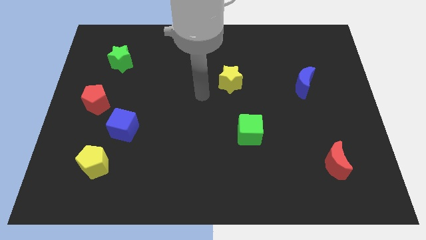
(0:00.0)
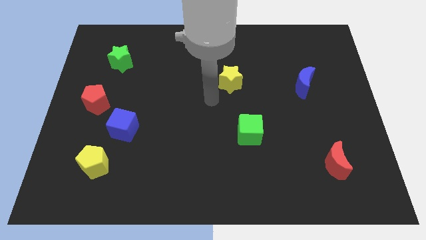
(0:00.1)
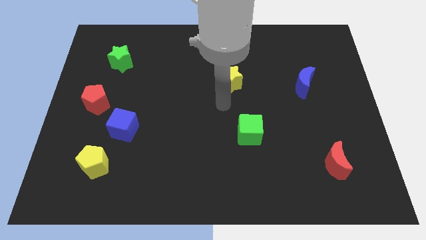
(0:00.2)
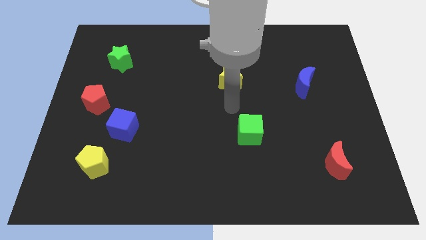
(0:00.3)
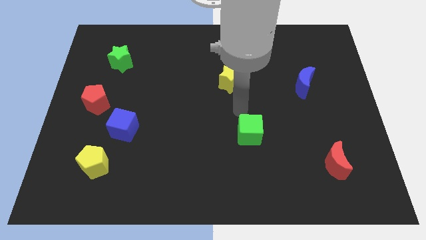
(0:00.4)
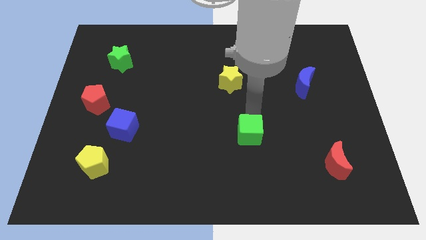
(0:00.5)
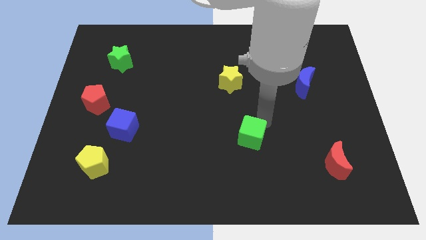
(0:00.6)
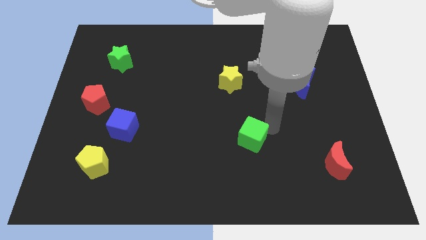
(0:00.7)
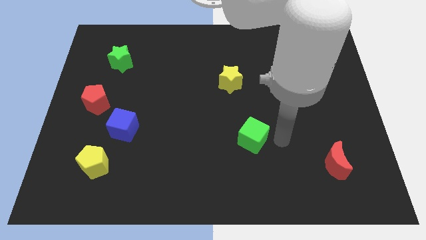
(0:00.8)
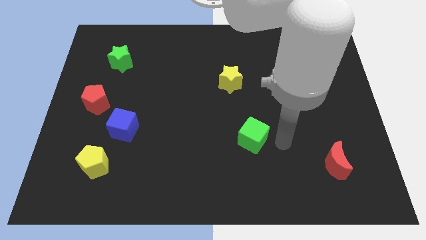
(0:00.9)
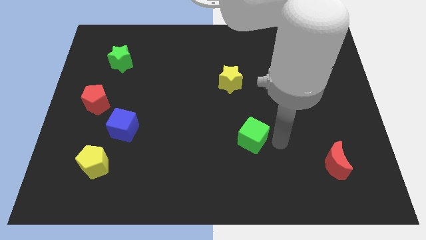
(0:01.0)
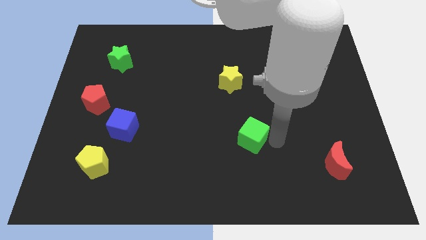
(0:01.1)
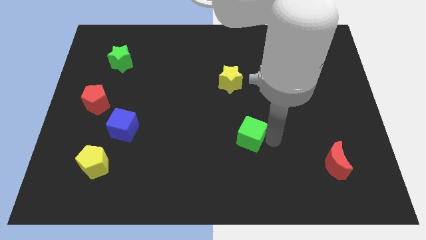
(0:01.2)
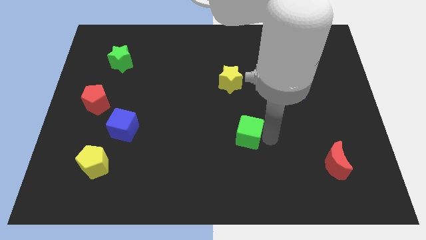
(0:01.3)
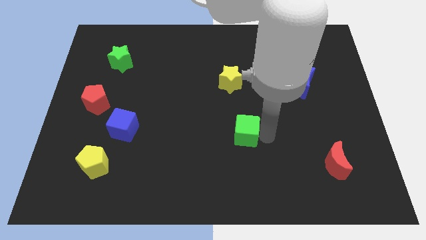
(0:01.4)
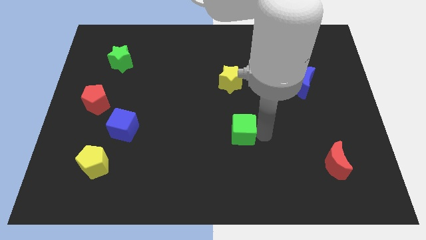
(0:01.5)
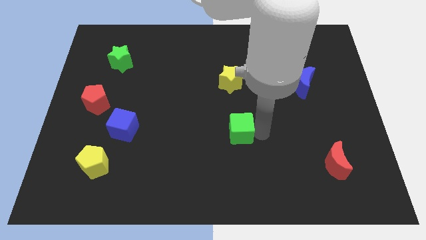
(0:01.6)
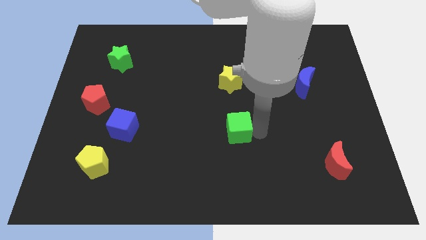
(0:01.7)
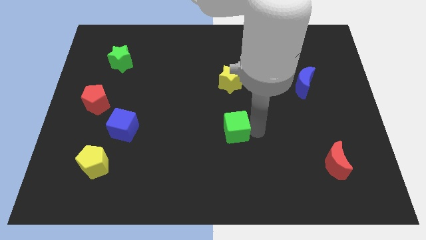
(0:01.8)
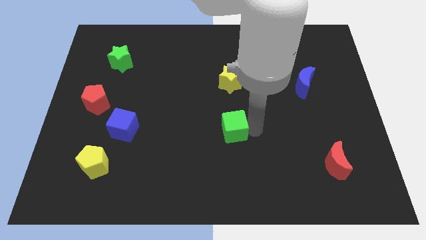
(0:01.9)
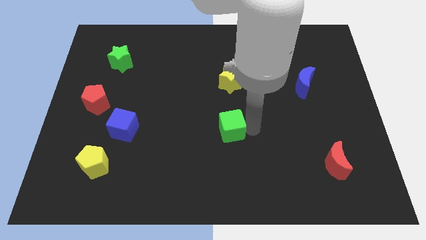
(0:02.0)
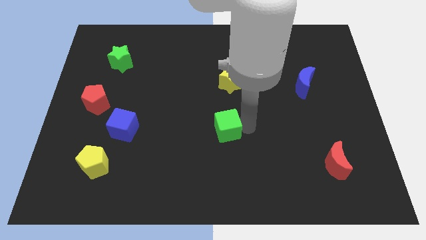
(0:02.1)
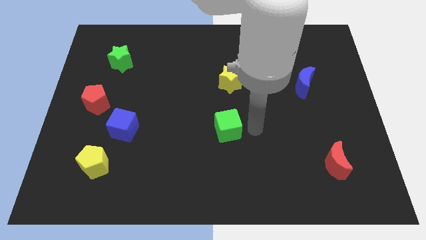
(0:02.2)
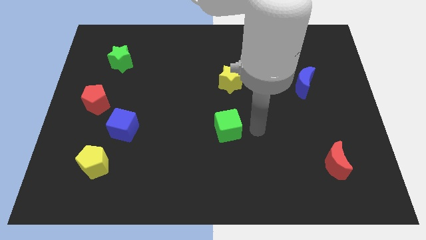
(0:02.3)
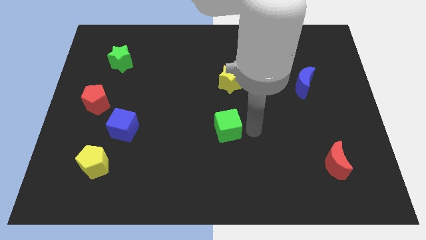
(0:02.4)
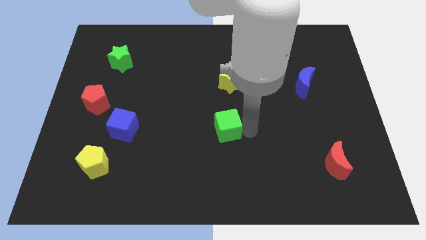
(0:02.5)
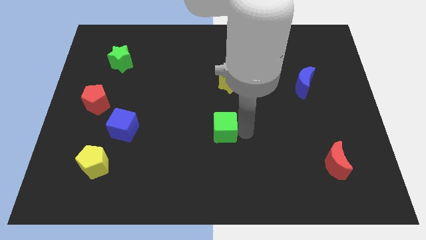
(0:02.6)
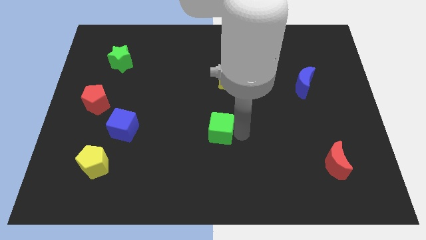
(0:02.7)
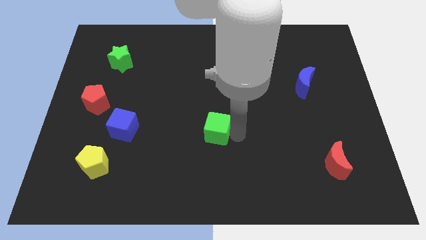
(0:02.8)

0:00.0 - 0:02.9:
slightly slide the green cube to the left

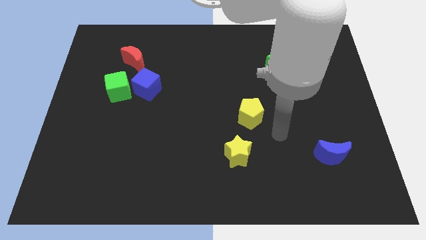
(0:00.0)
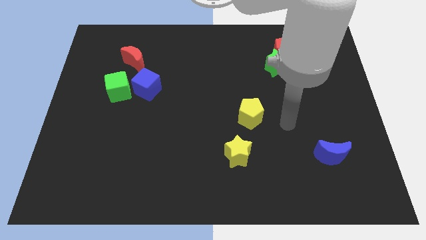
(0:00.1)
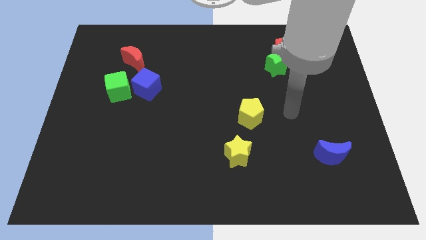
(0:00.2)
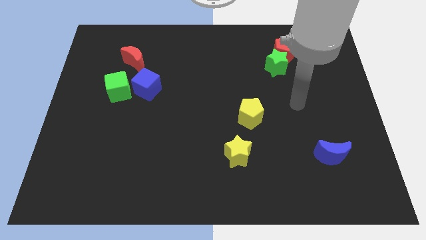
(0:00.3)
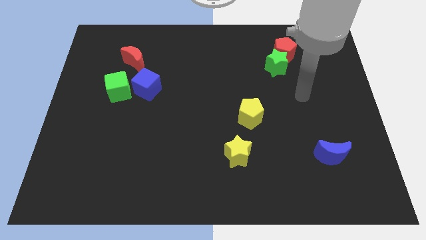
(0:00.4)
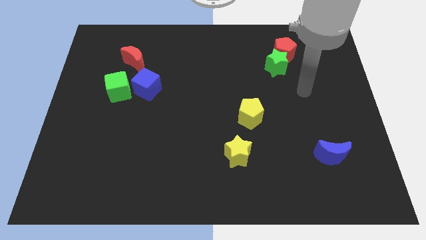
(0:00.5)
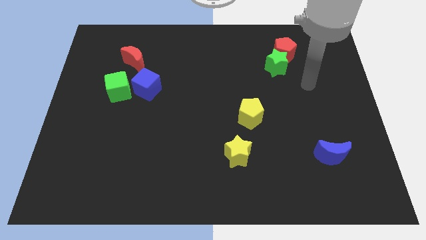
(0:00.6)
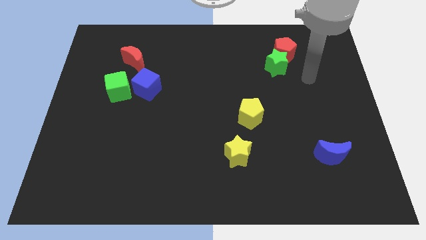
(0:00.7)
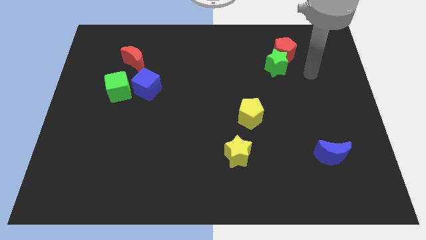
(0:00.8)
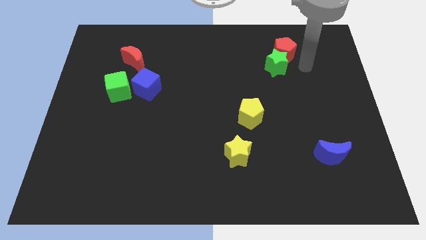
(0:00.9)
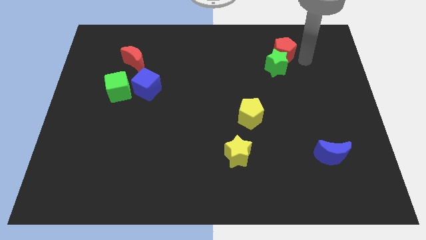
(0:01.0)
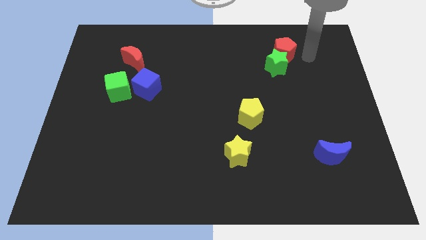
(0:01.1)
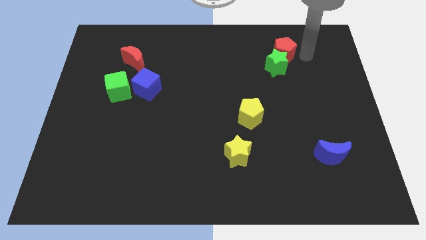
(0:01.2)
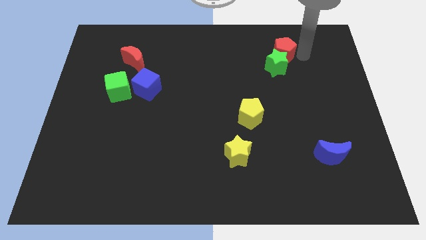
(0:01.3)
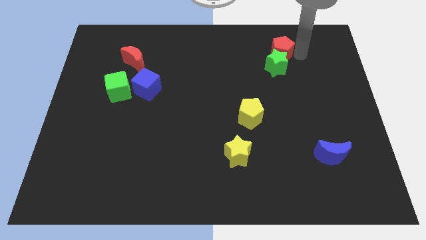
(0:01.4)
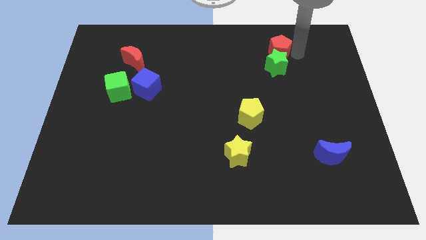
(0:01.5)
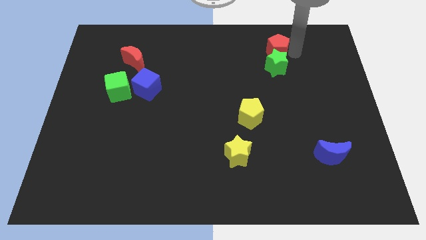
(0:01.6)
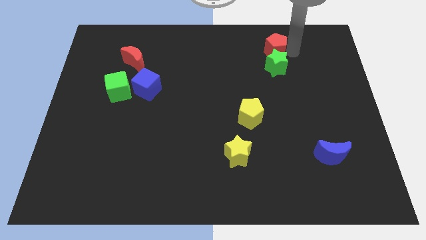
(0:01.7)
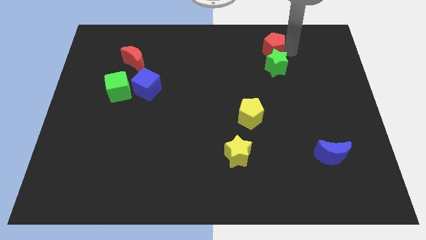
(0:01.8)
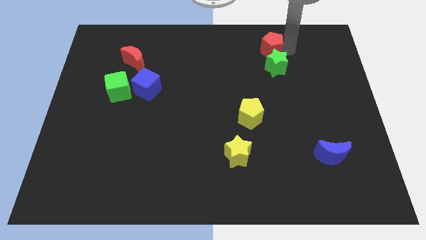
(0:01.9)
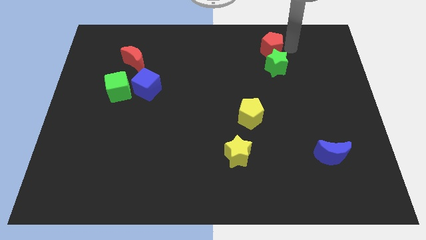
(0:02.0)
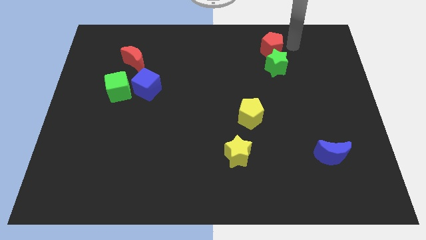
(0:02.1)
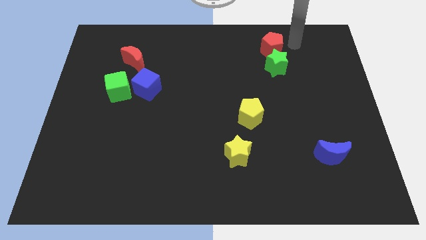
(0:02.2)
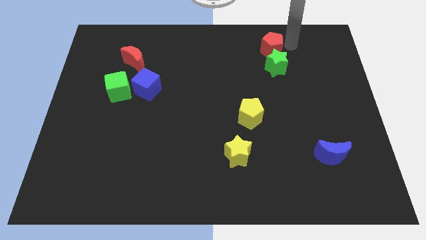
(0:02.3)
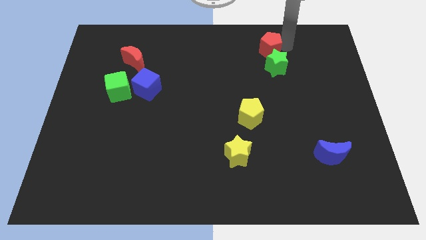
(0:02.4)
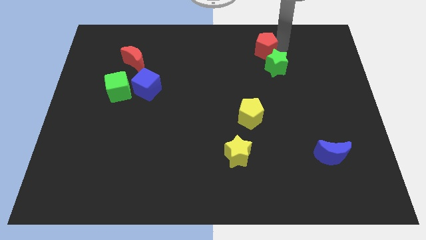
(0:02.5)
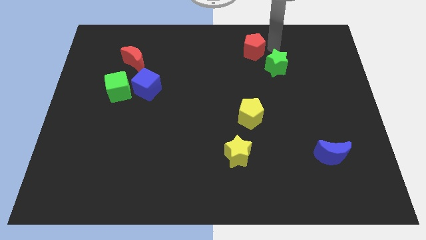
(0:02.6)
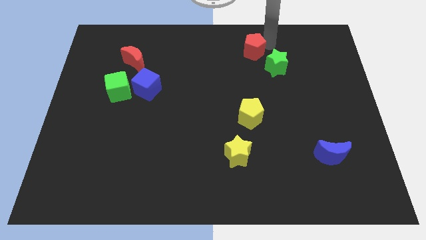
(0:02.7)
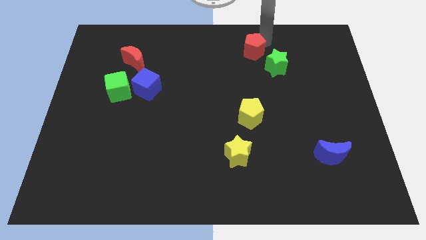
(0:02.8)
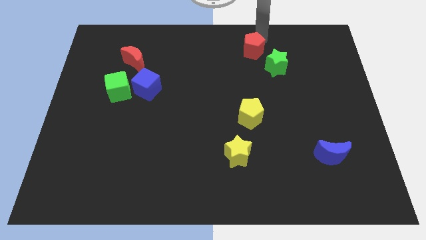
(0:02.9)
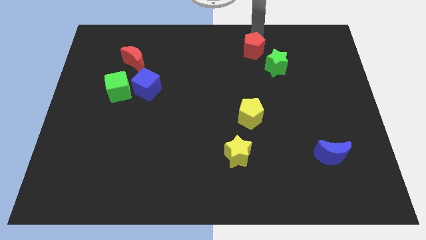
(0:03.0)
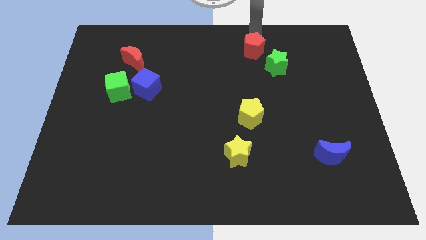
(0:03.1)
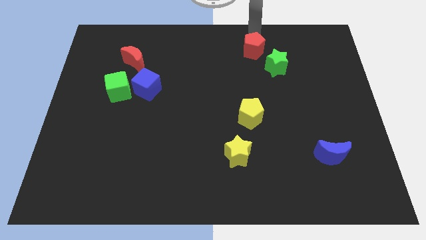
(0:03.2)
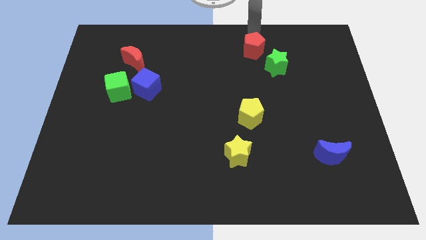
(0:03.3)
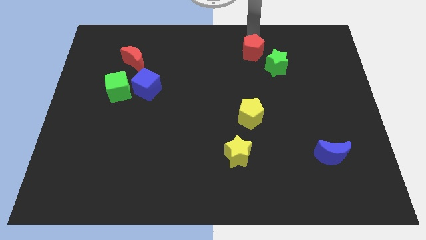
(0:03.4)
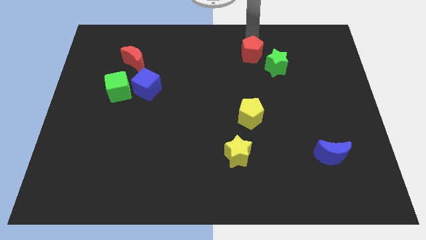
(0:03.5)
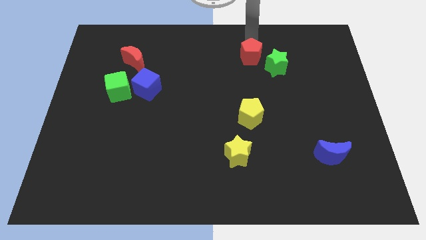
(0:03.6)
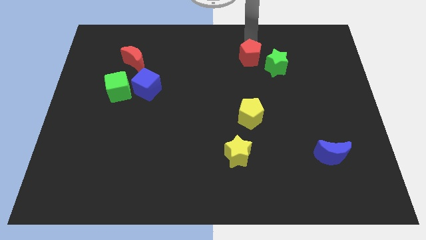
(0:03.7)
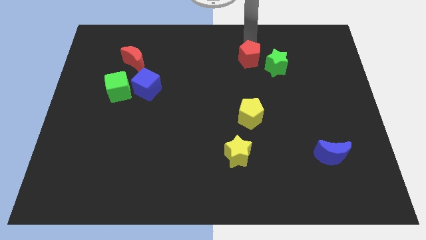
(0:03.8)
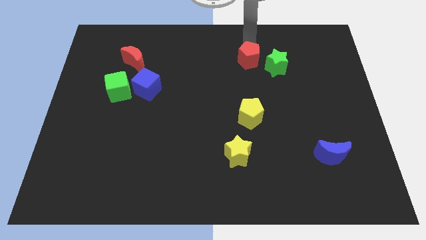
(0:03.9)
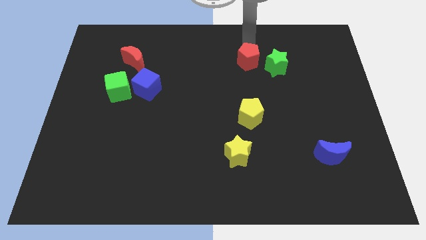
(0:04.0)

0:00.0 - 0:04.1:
slightly move the red pentagon downwards and left diagonally

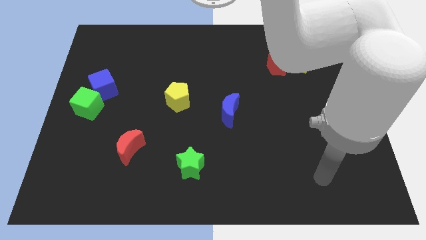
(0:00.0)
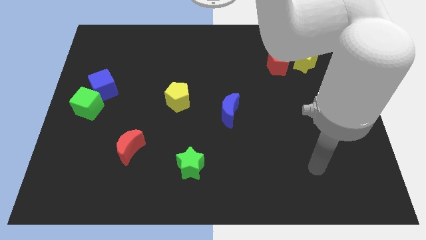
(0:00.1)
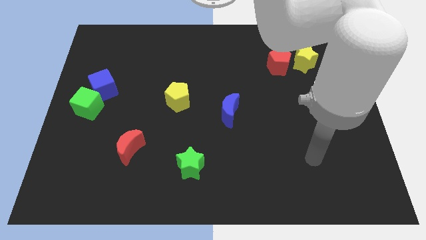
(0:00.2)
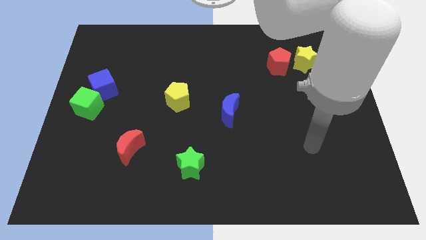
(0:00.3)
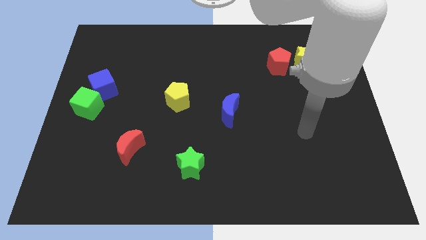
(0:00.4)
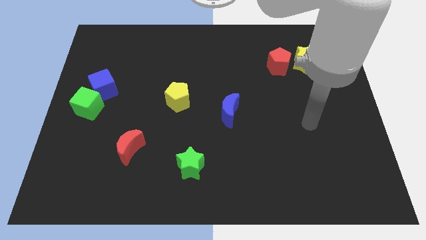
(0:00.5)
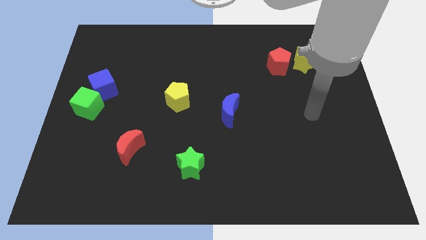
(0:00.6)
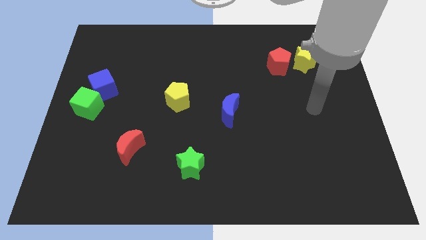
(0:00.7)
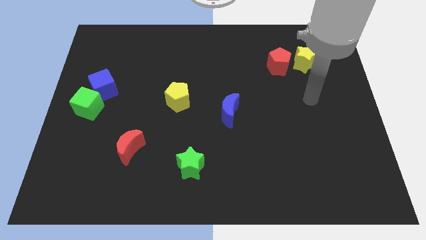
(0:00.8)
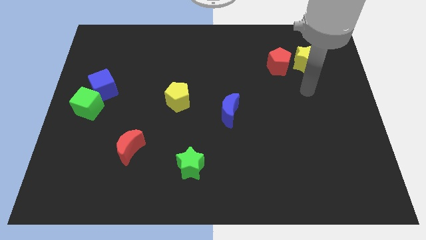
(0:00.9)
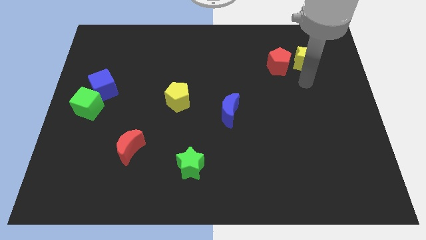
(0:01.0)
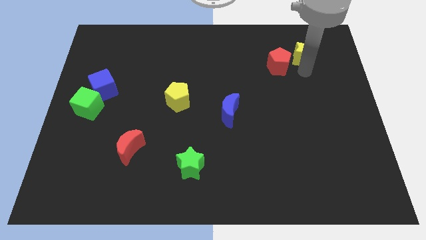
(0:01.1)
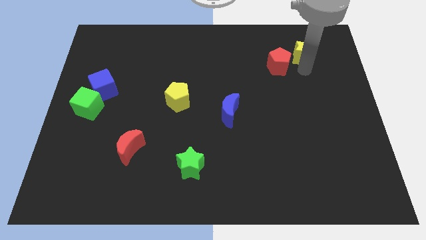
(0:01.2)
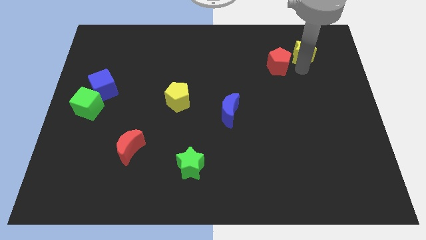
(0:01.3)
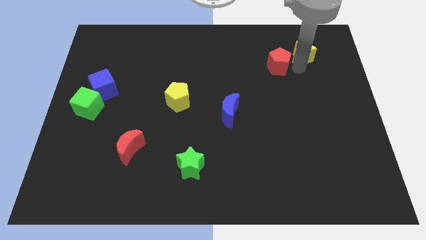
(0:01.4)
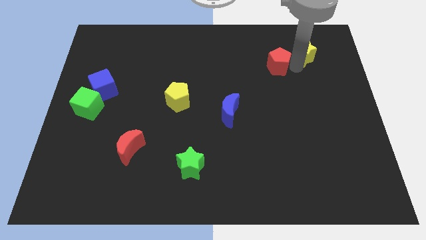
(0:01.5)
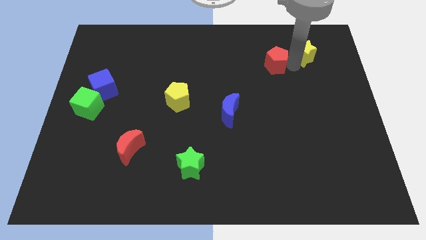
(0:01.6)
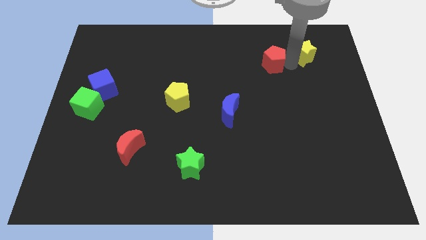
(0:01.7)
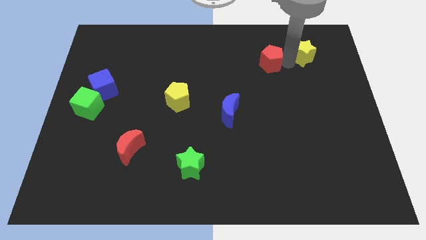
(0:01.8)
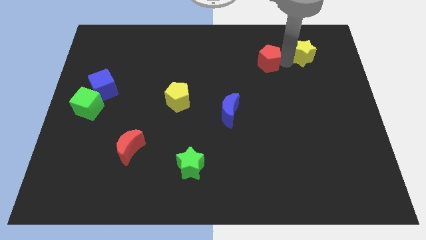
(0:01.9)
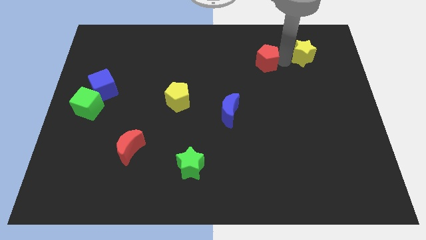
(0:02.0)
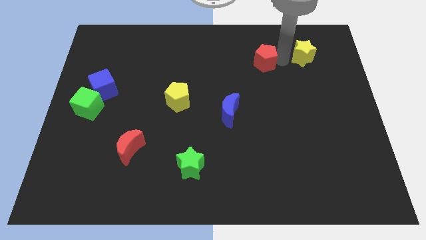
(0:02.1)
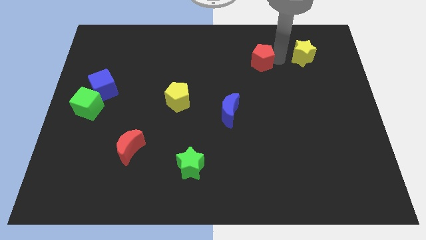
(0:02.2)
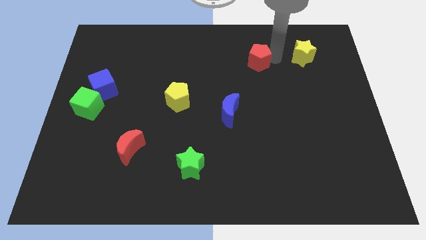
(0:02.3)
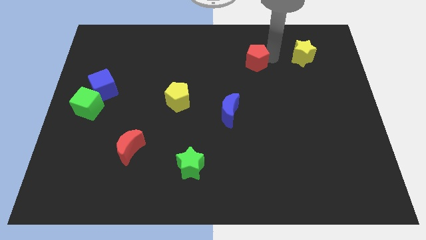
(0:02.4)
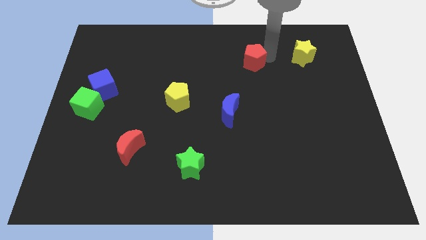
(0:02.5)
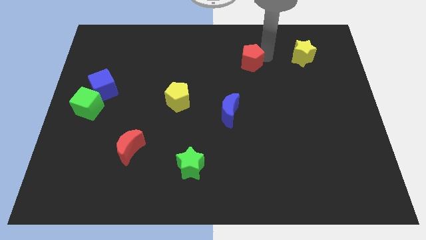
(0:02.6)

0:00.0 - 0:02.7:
slightly push the red pentagon left
